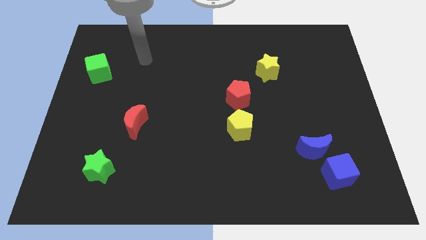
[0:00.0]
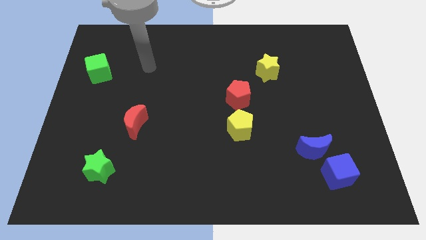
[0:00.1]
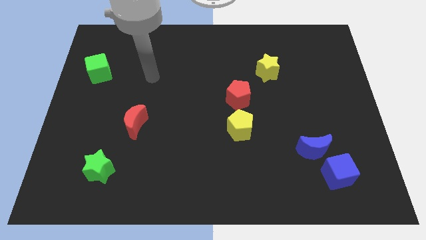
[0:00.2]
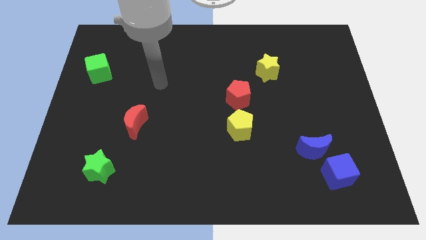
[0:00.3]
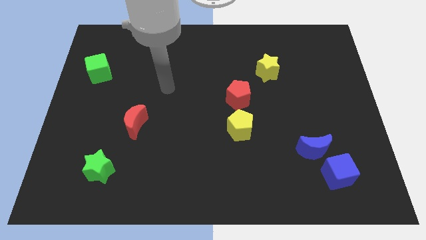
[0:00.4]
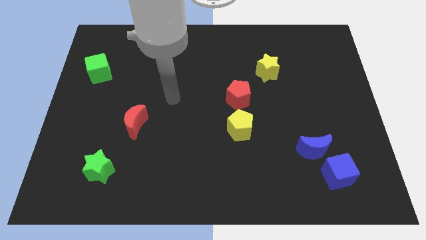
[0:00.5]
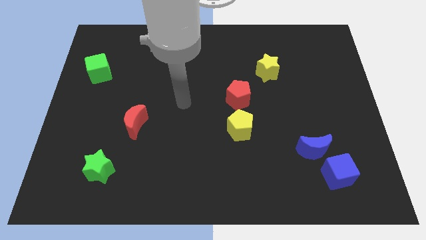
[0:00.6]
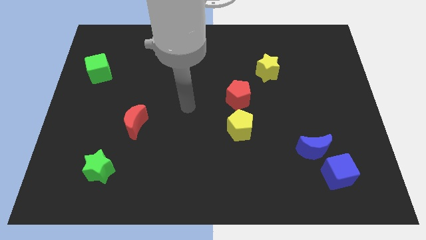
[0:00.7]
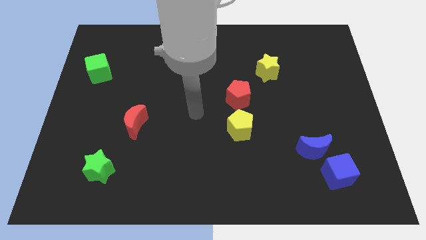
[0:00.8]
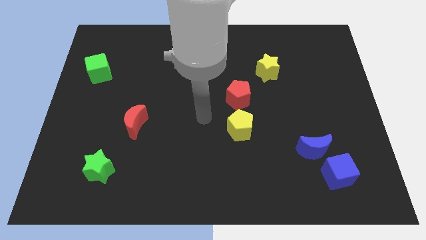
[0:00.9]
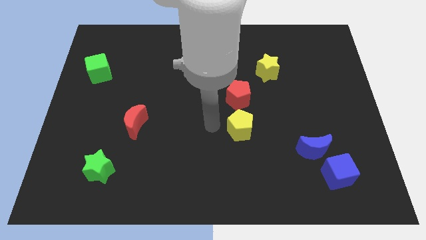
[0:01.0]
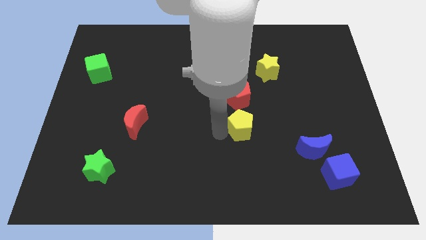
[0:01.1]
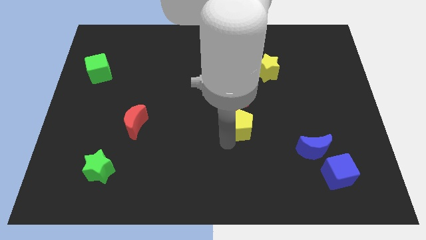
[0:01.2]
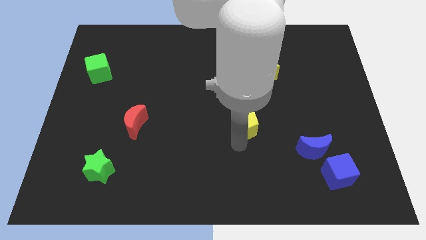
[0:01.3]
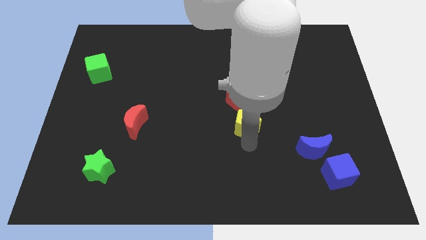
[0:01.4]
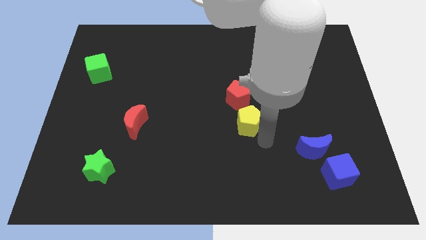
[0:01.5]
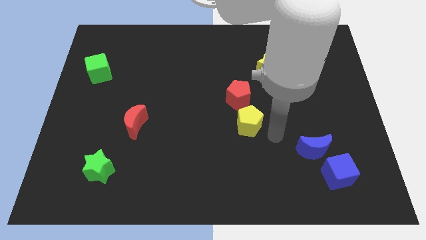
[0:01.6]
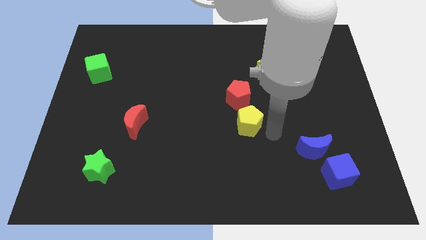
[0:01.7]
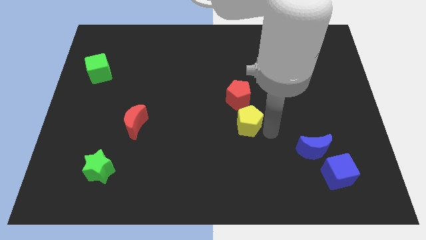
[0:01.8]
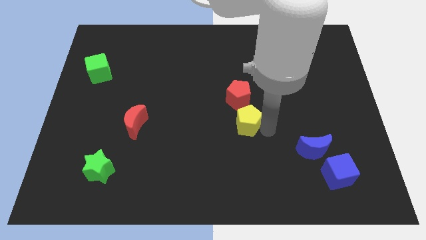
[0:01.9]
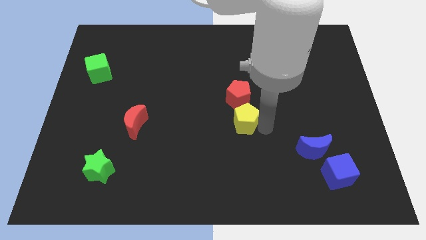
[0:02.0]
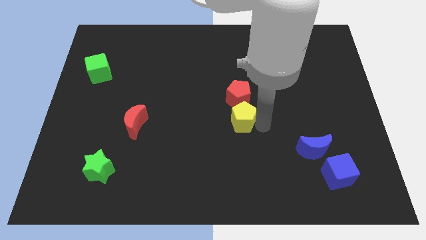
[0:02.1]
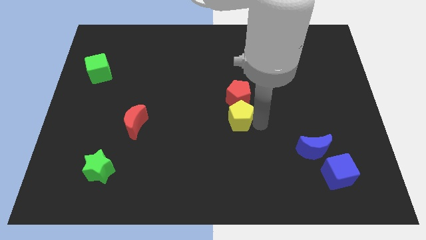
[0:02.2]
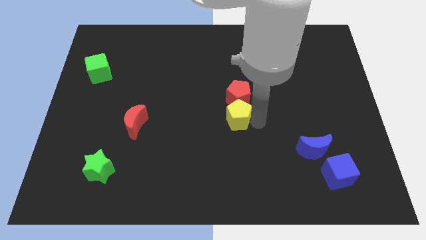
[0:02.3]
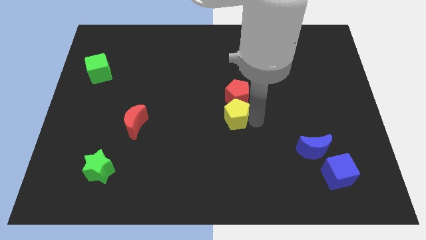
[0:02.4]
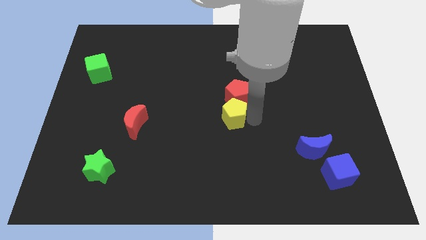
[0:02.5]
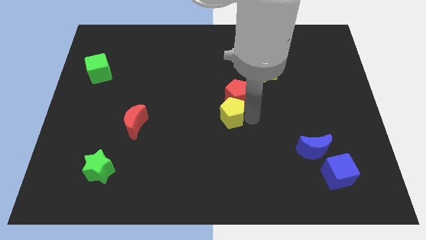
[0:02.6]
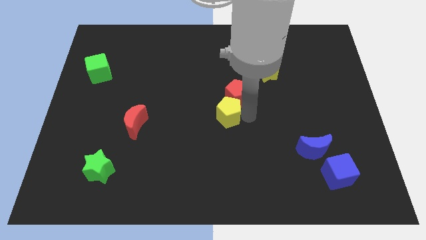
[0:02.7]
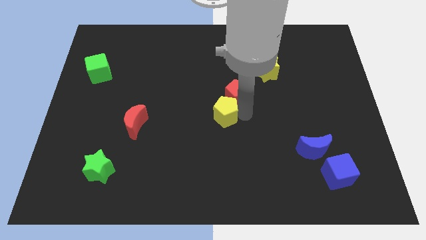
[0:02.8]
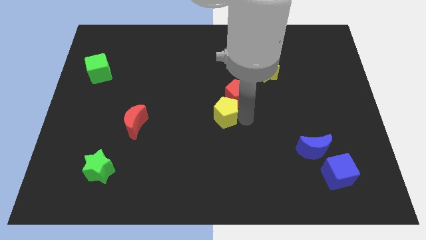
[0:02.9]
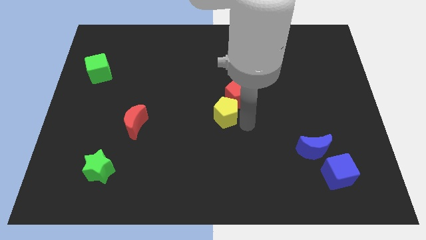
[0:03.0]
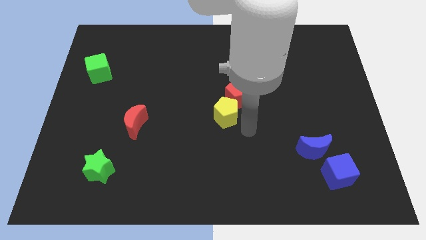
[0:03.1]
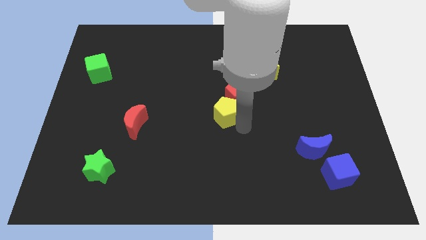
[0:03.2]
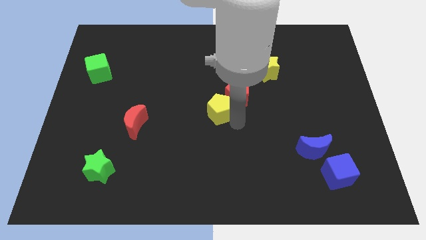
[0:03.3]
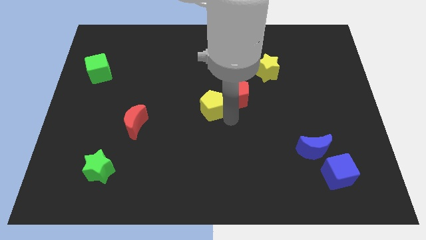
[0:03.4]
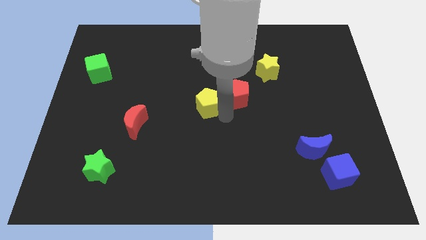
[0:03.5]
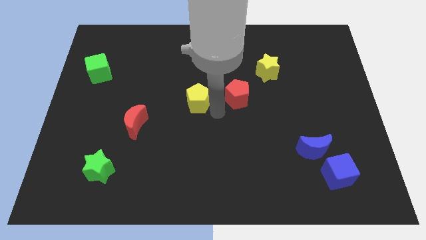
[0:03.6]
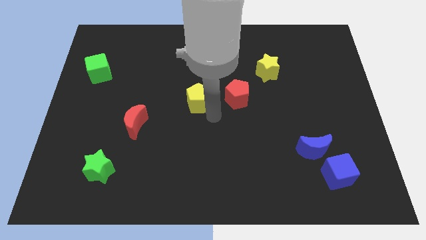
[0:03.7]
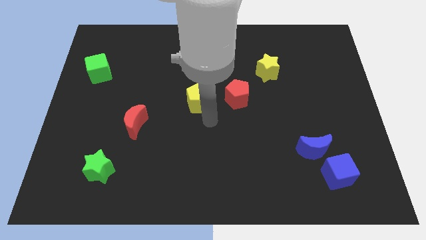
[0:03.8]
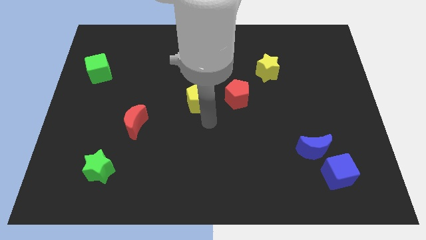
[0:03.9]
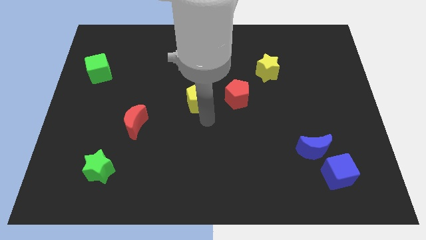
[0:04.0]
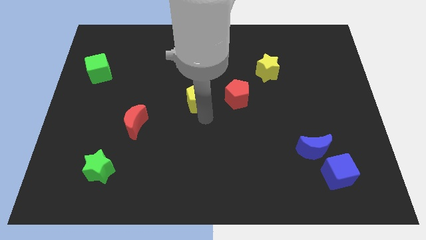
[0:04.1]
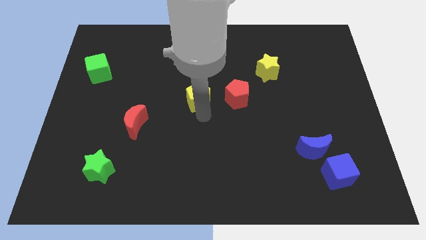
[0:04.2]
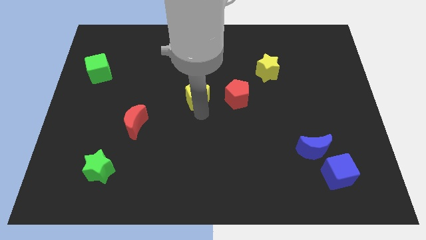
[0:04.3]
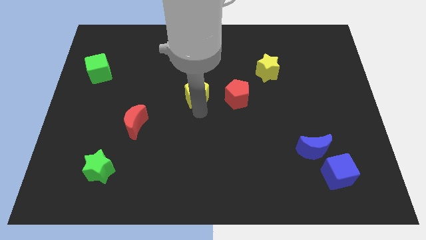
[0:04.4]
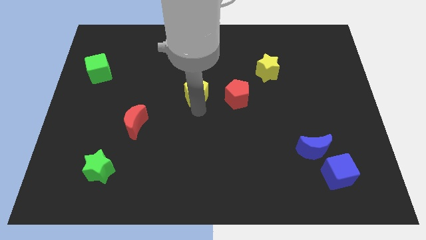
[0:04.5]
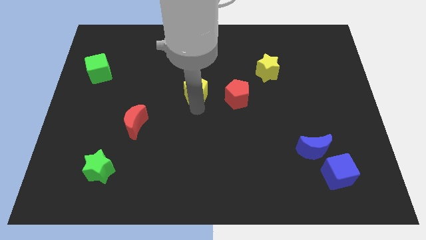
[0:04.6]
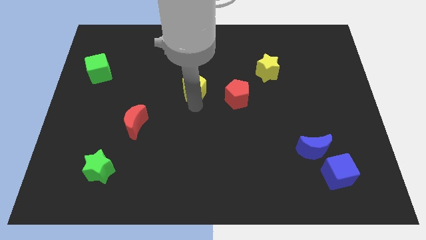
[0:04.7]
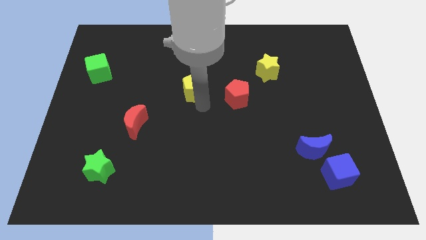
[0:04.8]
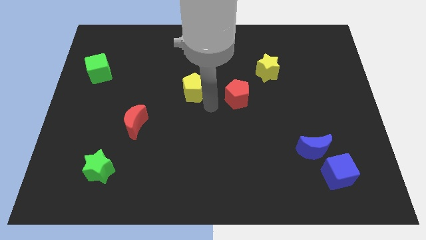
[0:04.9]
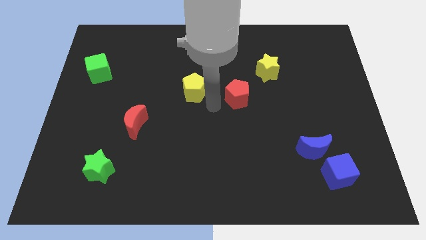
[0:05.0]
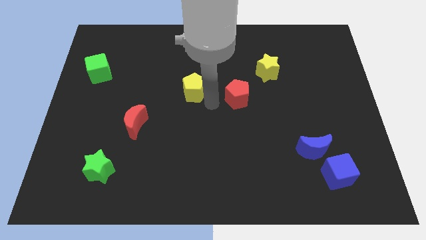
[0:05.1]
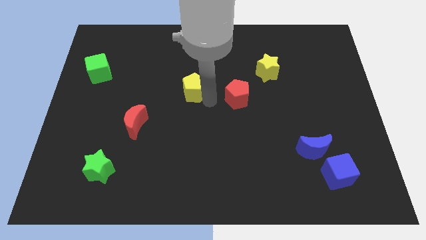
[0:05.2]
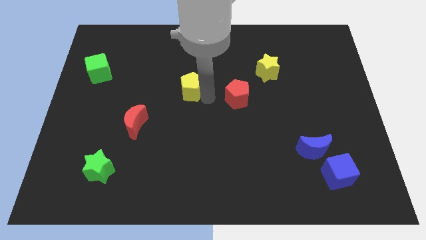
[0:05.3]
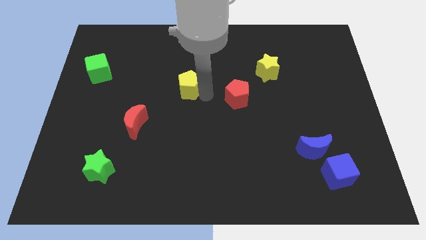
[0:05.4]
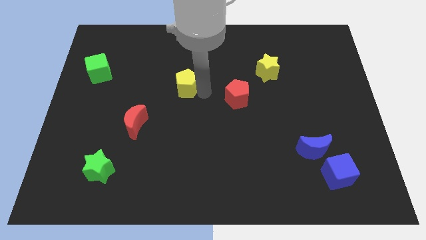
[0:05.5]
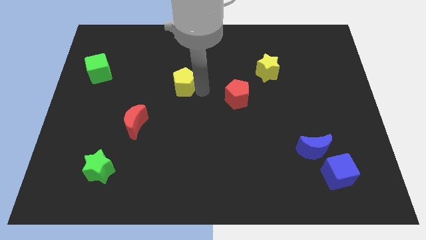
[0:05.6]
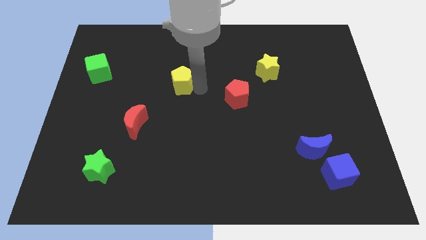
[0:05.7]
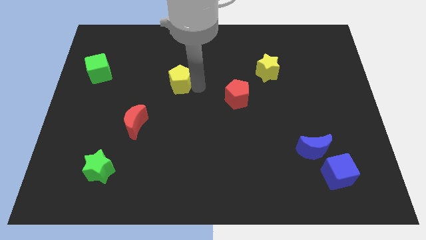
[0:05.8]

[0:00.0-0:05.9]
slide the yellow pentagon up and to the left diagonally

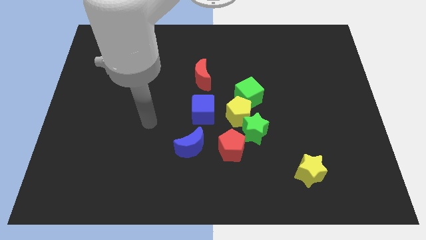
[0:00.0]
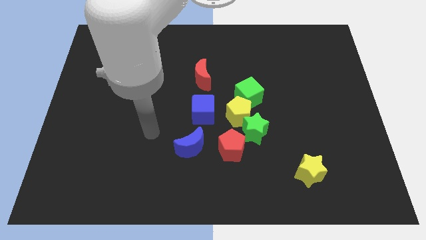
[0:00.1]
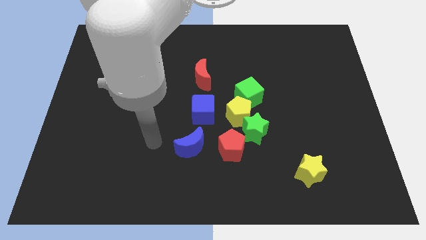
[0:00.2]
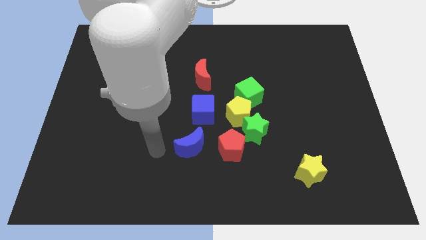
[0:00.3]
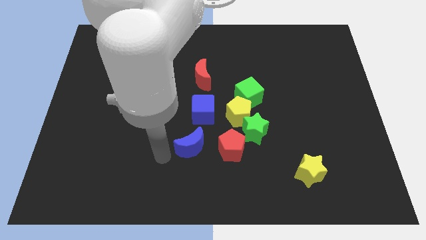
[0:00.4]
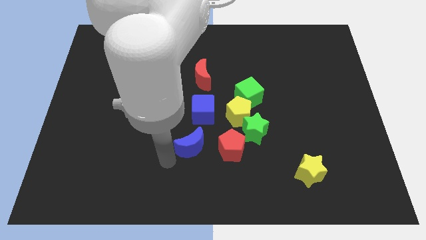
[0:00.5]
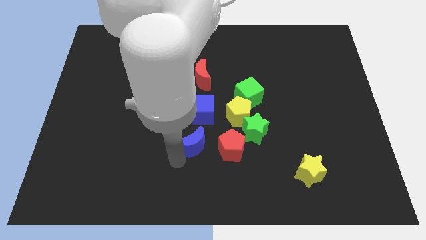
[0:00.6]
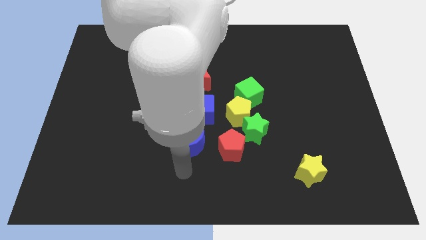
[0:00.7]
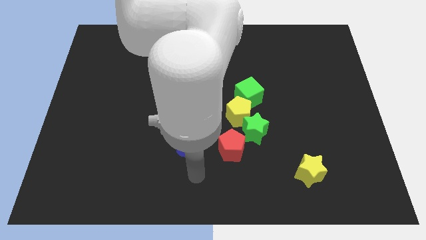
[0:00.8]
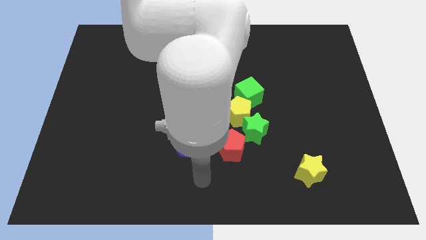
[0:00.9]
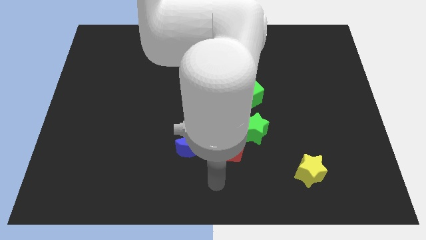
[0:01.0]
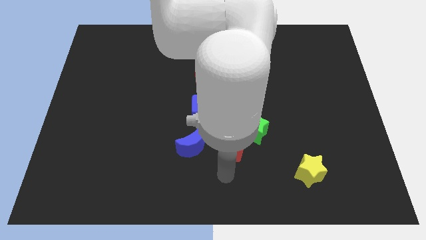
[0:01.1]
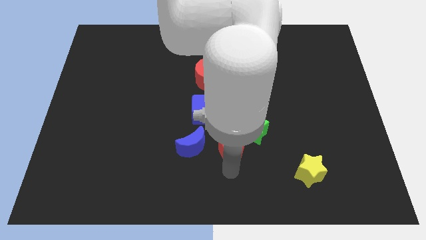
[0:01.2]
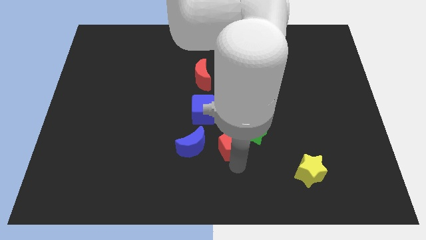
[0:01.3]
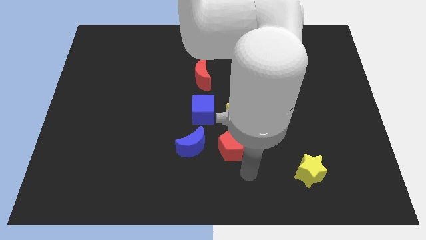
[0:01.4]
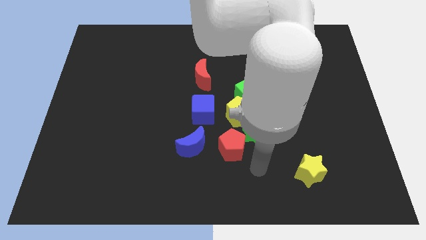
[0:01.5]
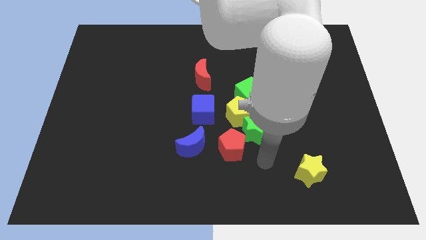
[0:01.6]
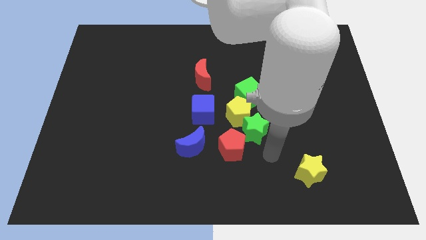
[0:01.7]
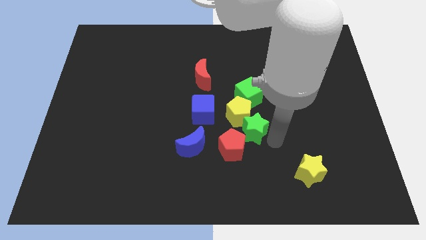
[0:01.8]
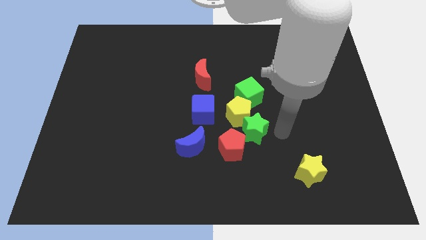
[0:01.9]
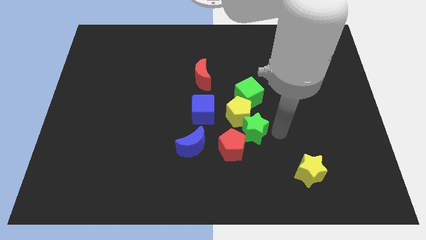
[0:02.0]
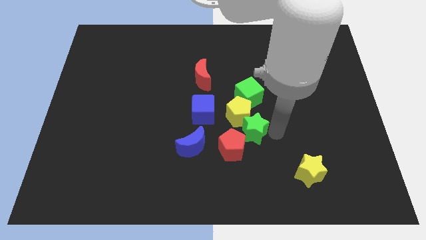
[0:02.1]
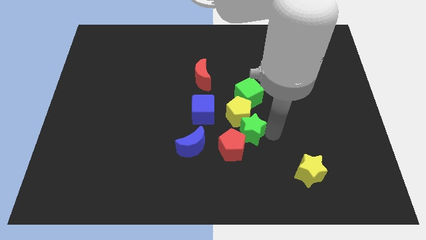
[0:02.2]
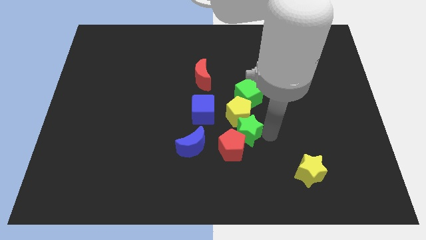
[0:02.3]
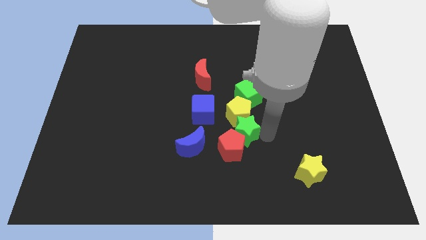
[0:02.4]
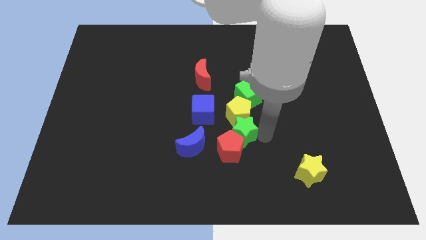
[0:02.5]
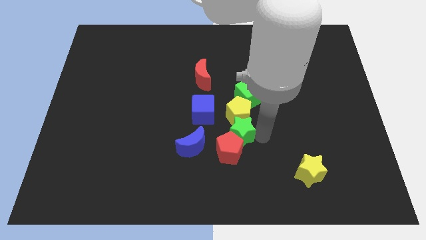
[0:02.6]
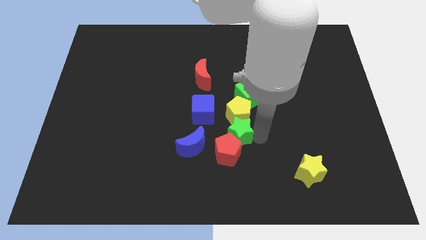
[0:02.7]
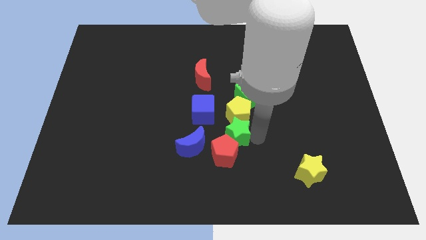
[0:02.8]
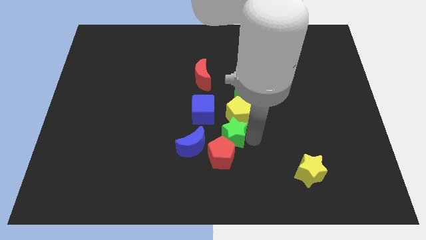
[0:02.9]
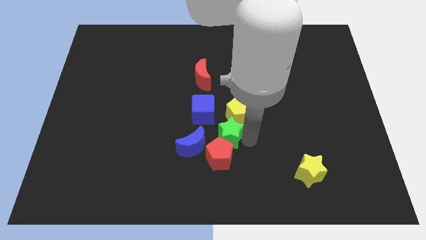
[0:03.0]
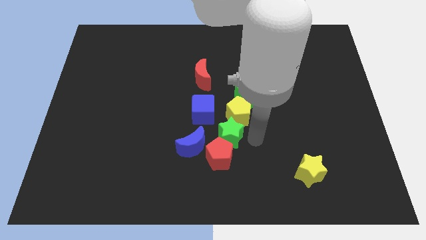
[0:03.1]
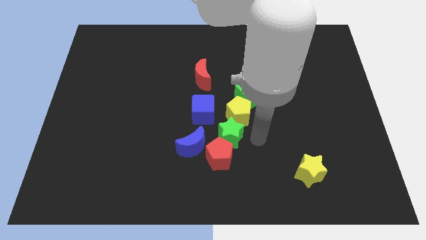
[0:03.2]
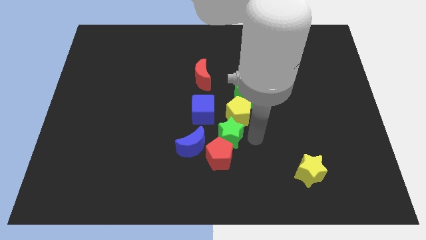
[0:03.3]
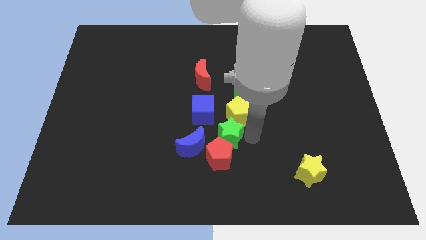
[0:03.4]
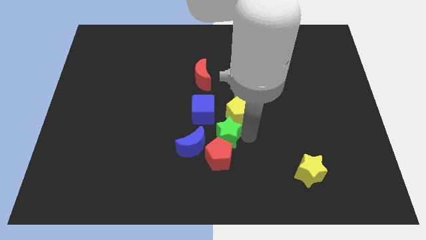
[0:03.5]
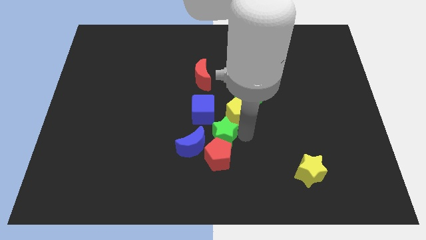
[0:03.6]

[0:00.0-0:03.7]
push the green star a little to the left
